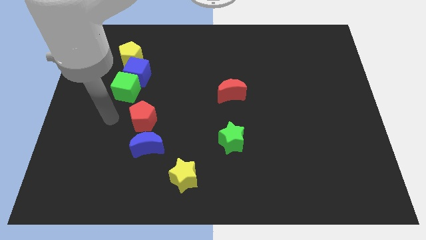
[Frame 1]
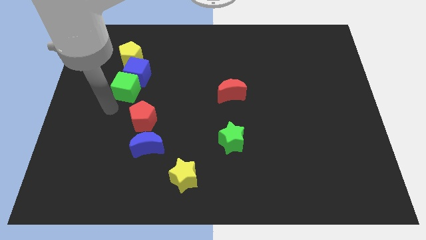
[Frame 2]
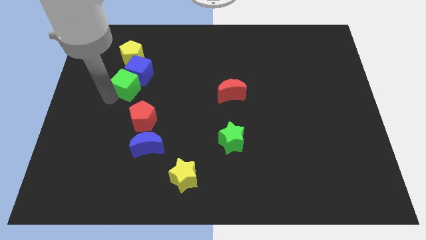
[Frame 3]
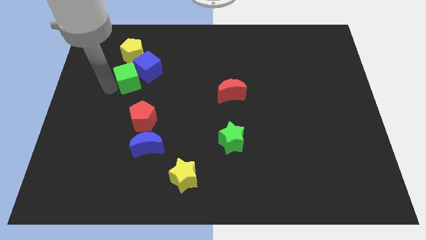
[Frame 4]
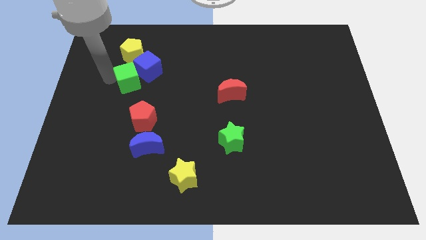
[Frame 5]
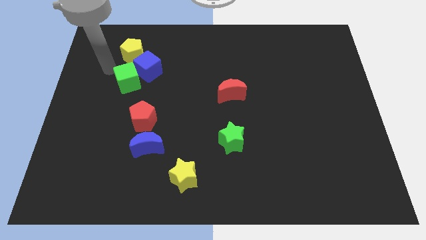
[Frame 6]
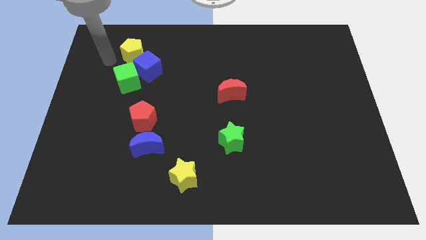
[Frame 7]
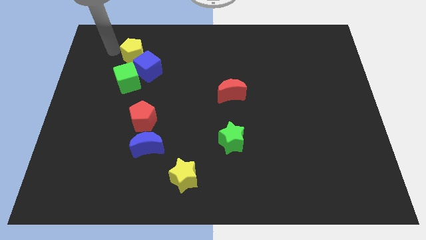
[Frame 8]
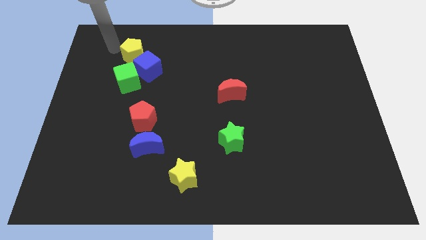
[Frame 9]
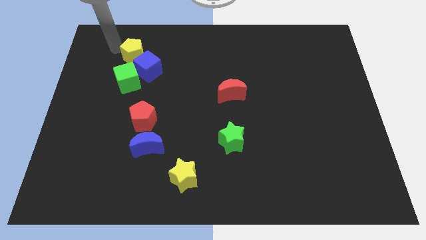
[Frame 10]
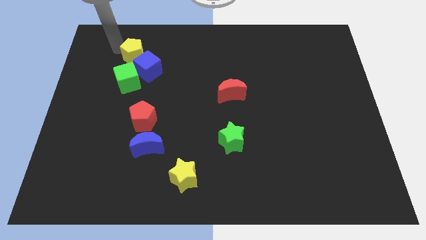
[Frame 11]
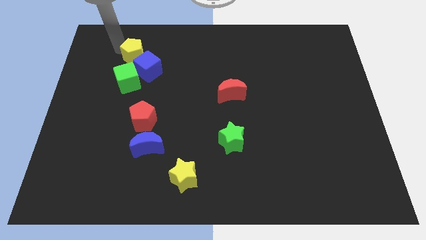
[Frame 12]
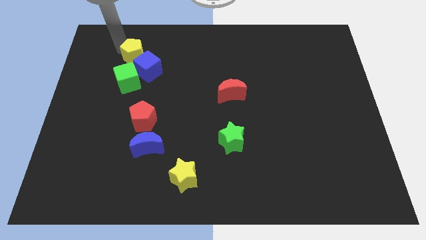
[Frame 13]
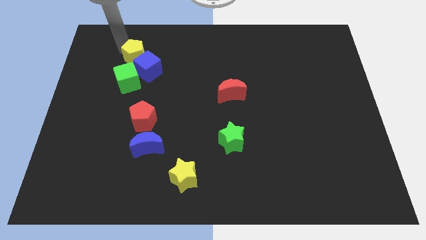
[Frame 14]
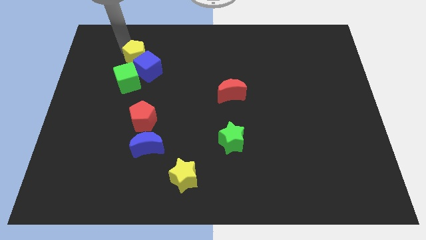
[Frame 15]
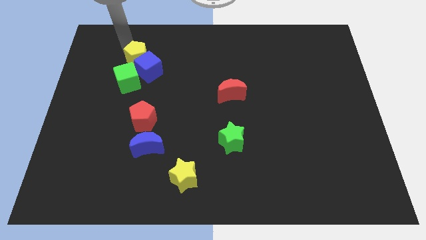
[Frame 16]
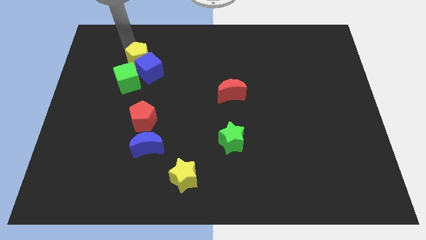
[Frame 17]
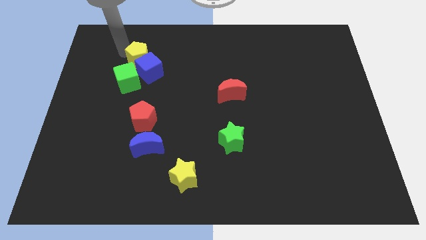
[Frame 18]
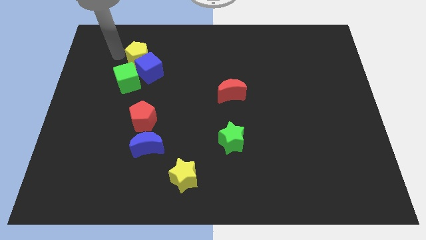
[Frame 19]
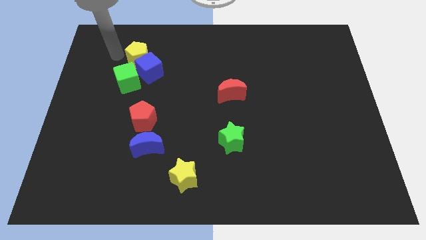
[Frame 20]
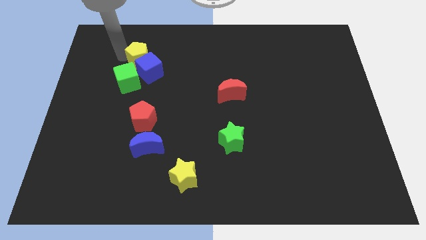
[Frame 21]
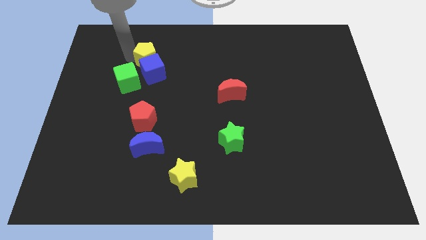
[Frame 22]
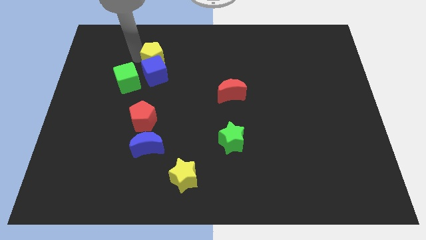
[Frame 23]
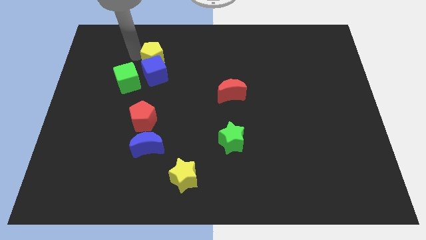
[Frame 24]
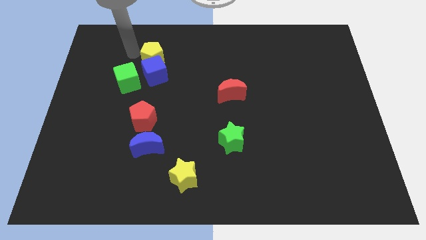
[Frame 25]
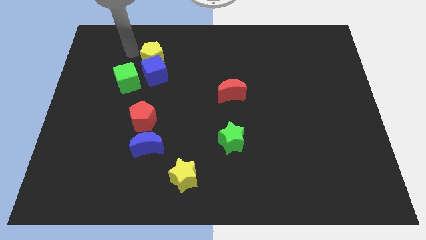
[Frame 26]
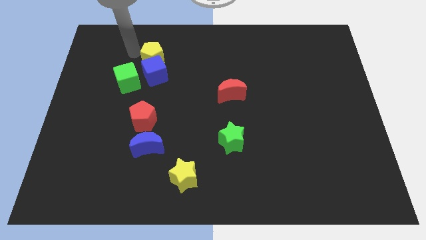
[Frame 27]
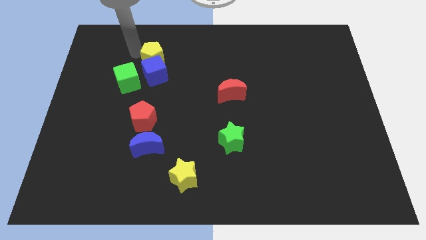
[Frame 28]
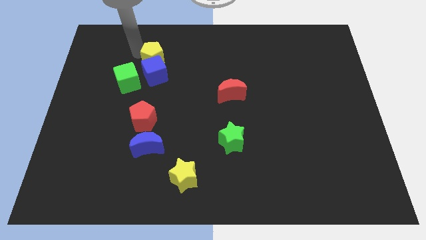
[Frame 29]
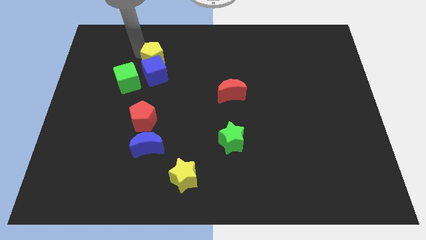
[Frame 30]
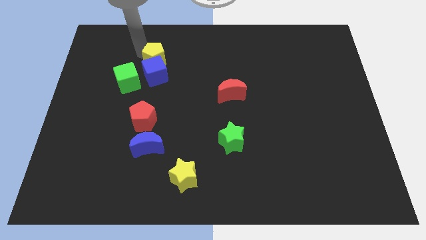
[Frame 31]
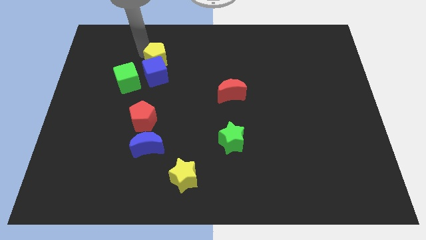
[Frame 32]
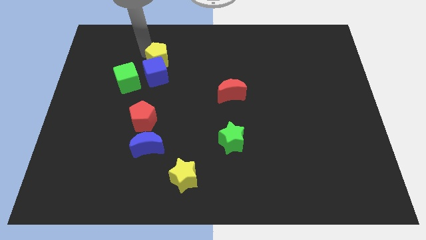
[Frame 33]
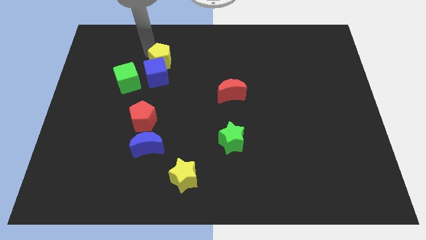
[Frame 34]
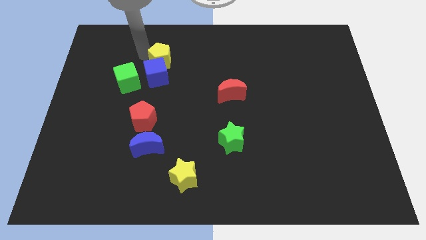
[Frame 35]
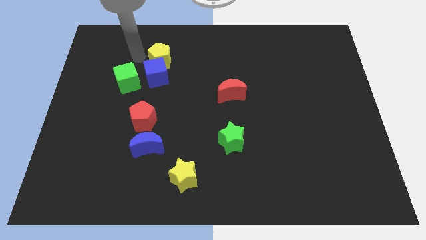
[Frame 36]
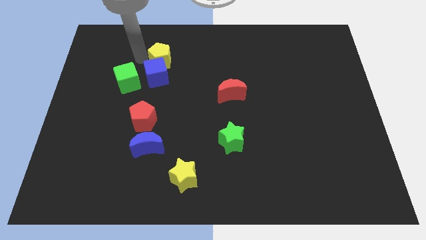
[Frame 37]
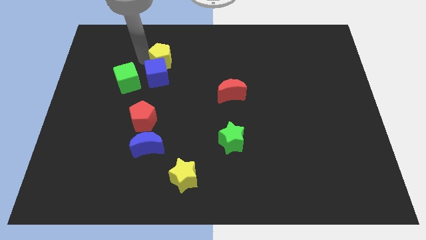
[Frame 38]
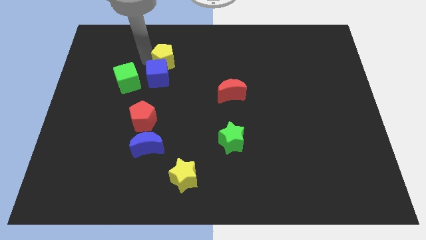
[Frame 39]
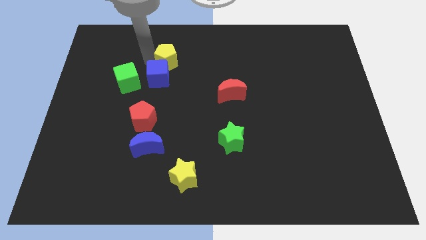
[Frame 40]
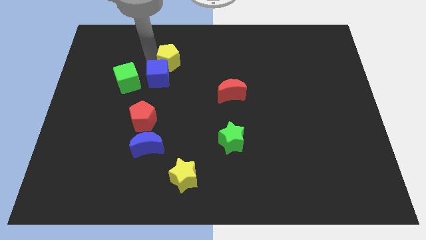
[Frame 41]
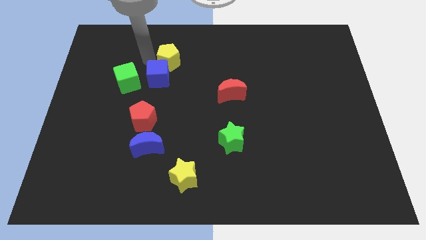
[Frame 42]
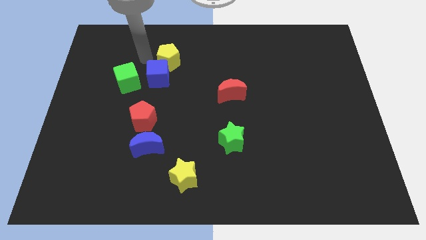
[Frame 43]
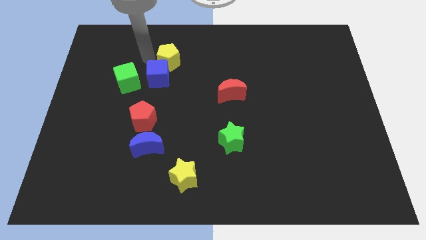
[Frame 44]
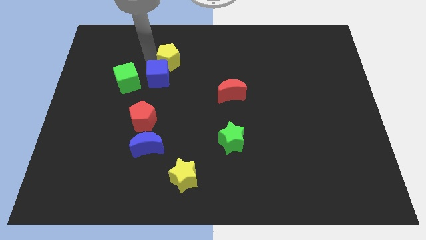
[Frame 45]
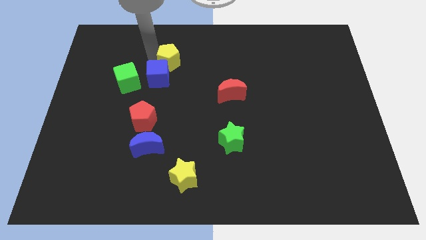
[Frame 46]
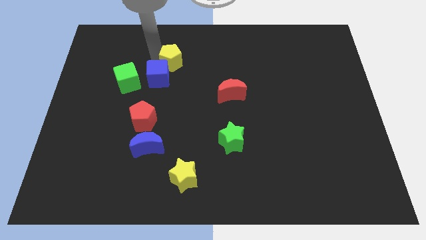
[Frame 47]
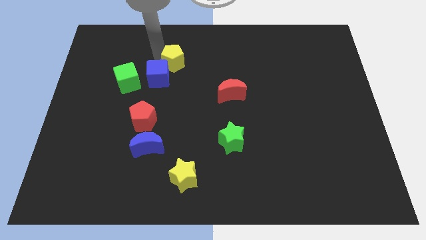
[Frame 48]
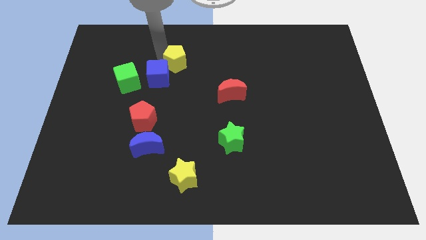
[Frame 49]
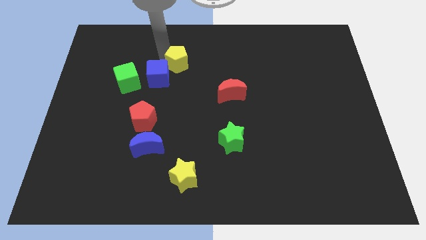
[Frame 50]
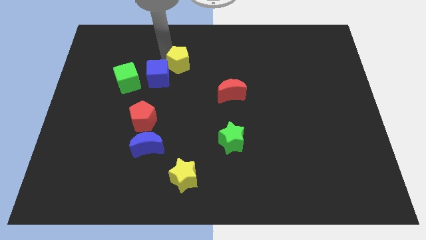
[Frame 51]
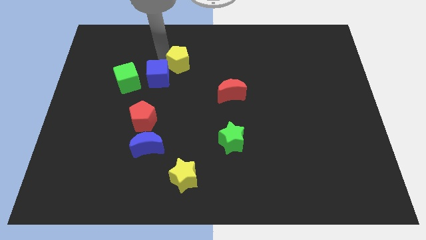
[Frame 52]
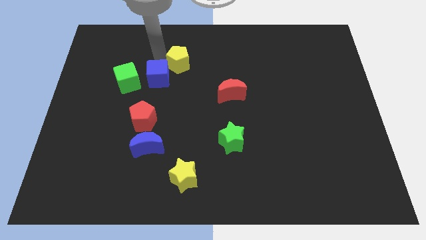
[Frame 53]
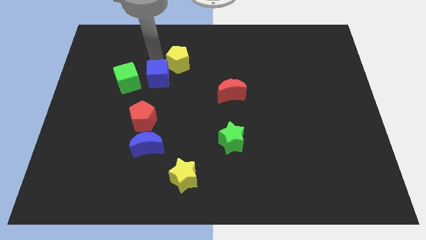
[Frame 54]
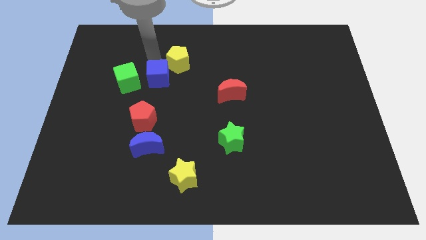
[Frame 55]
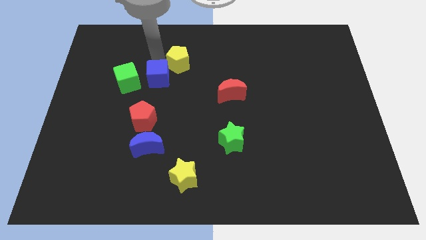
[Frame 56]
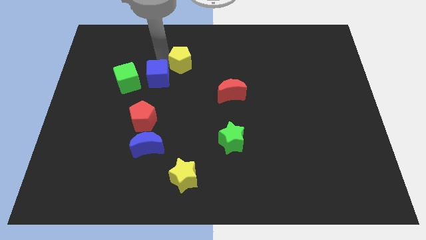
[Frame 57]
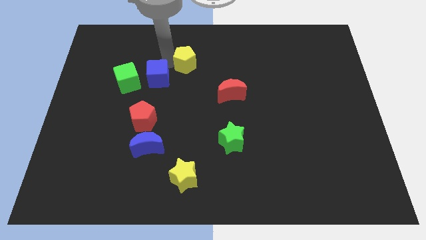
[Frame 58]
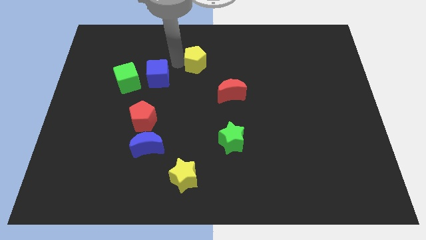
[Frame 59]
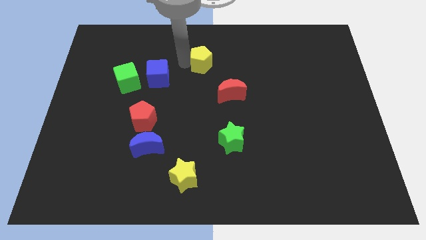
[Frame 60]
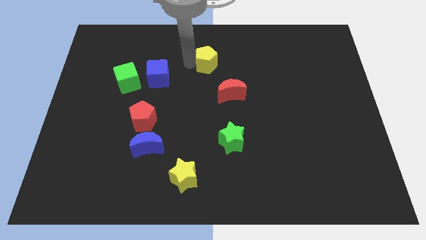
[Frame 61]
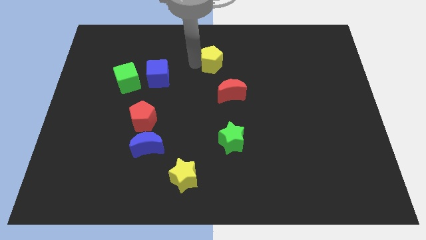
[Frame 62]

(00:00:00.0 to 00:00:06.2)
move the yellow pentagon to the right

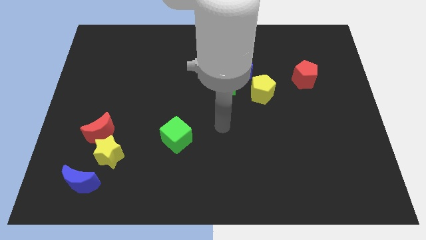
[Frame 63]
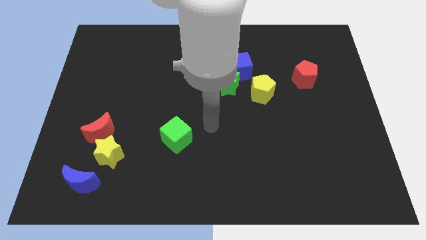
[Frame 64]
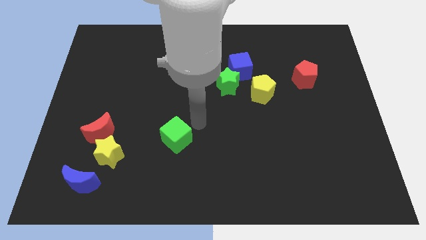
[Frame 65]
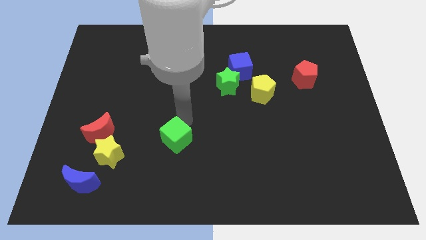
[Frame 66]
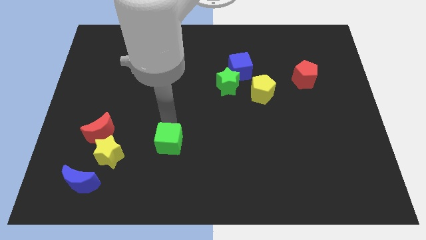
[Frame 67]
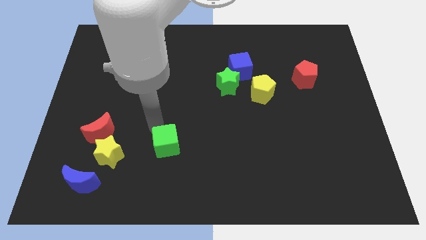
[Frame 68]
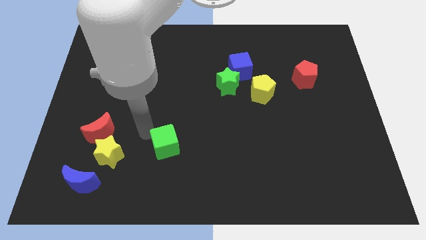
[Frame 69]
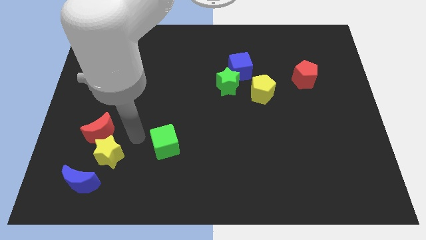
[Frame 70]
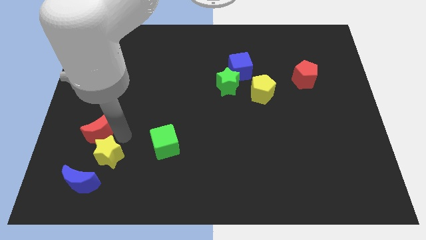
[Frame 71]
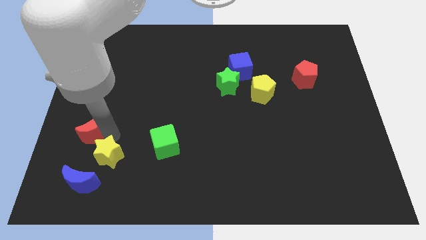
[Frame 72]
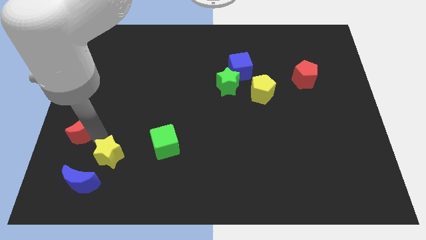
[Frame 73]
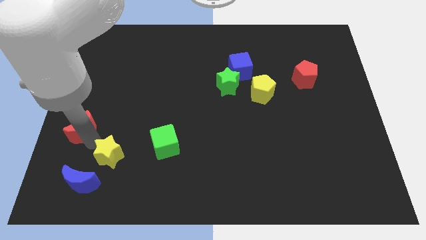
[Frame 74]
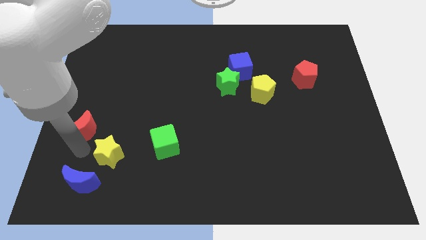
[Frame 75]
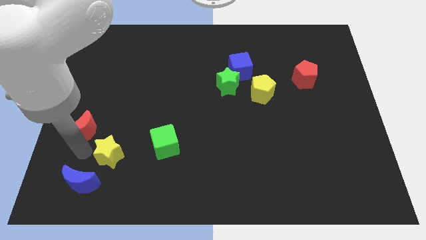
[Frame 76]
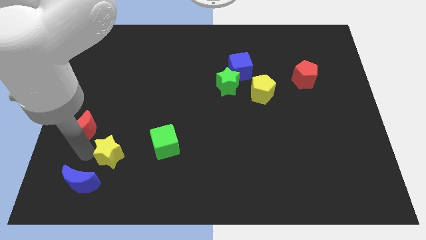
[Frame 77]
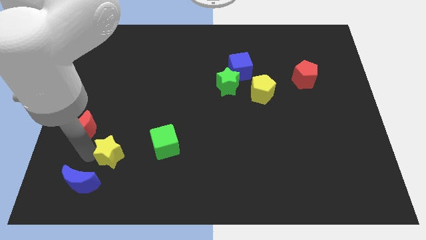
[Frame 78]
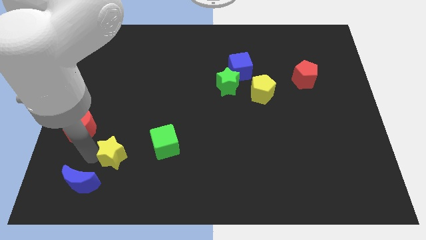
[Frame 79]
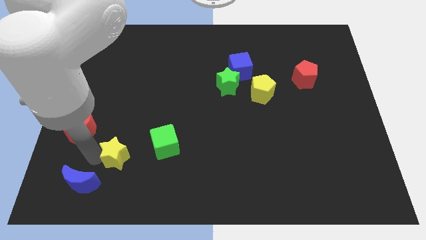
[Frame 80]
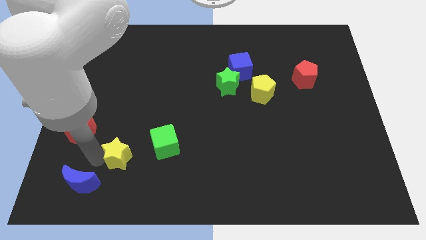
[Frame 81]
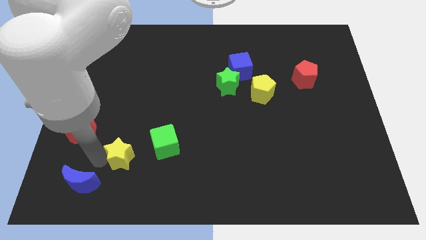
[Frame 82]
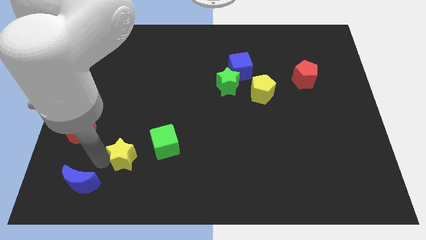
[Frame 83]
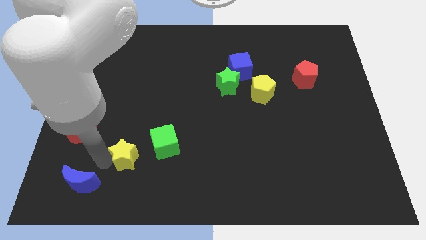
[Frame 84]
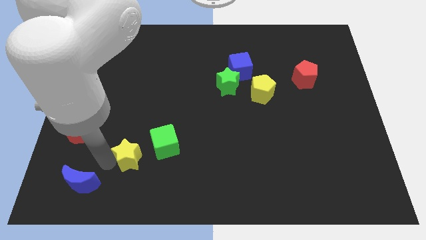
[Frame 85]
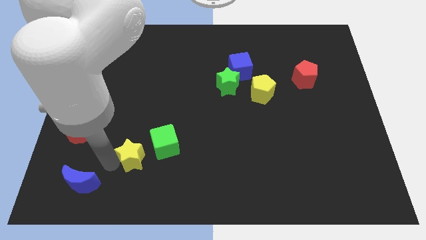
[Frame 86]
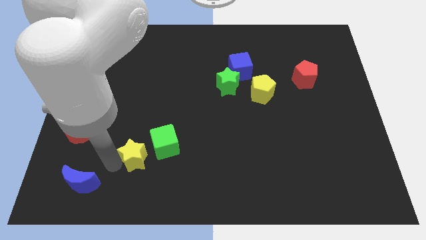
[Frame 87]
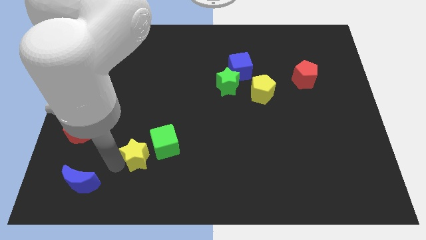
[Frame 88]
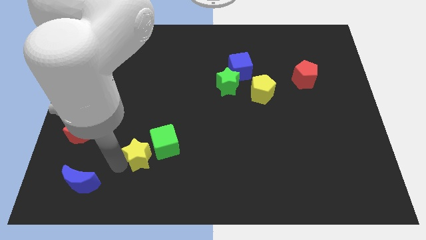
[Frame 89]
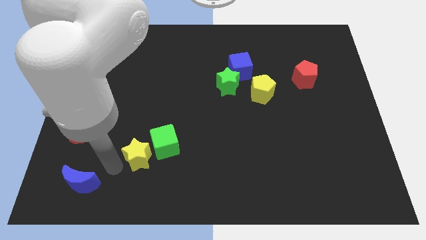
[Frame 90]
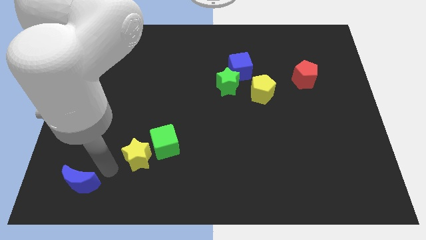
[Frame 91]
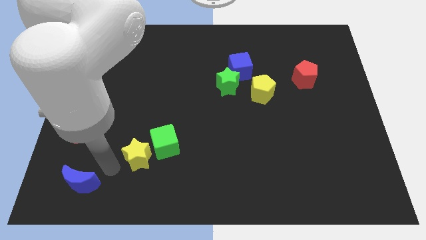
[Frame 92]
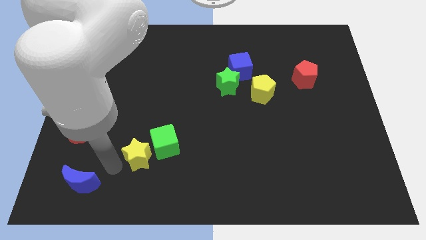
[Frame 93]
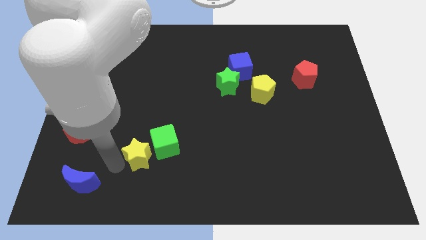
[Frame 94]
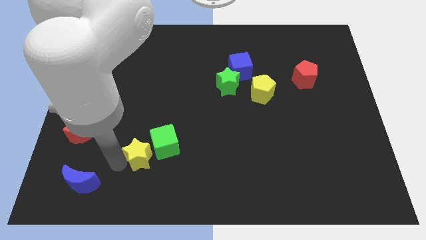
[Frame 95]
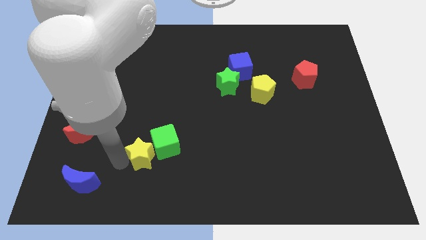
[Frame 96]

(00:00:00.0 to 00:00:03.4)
slide the yellow star a little to the right
